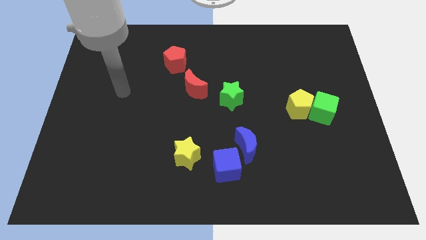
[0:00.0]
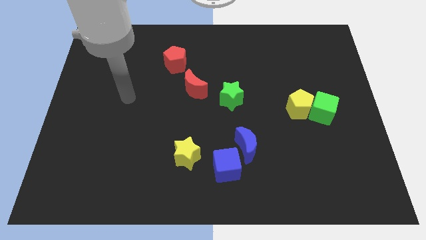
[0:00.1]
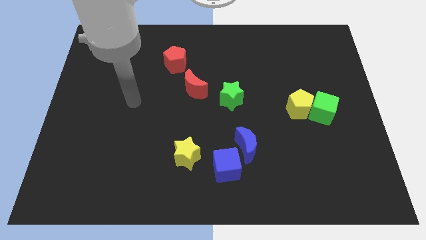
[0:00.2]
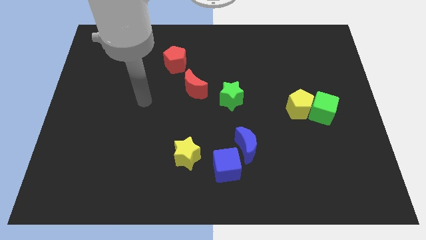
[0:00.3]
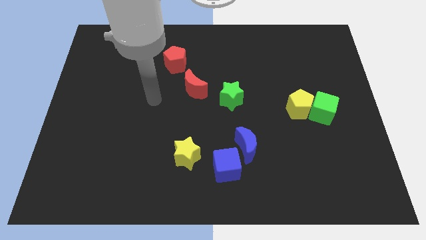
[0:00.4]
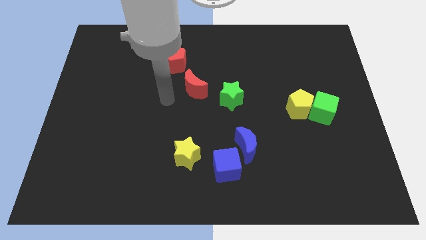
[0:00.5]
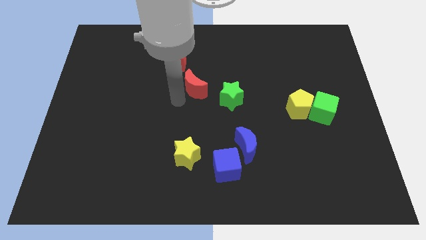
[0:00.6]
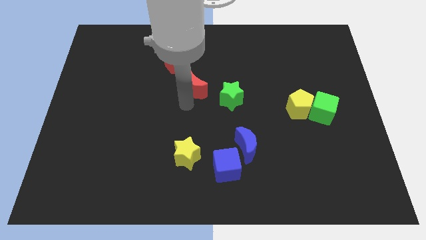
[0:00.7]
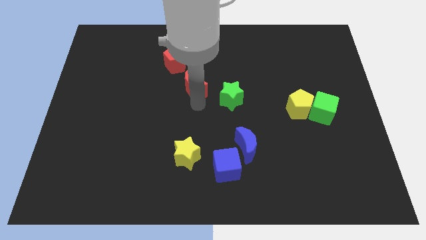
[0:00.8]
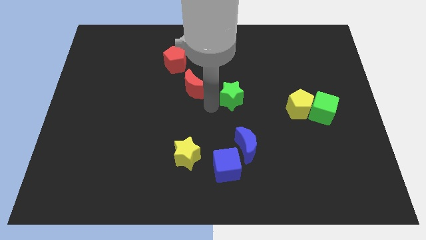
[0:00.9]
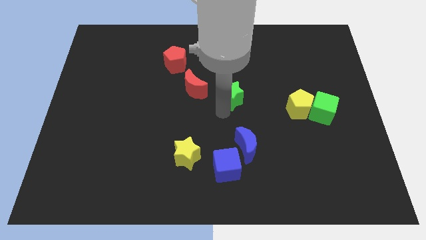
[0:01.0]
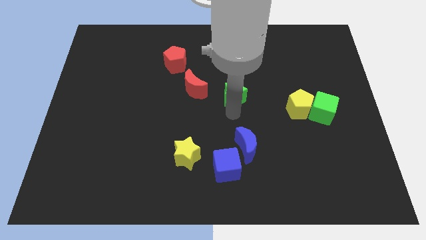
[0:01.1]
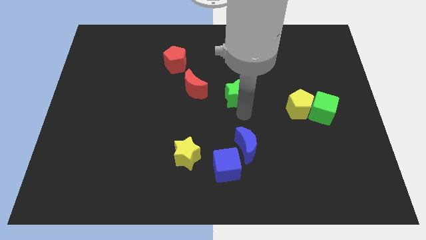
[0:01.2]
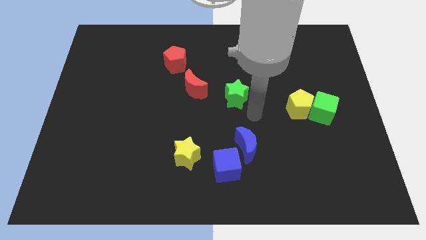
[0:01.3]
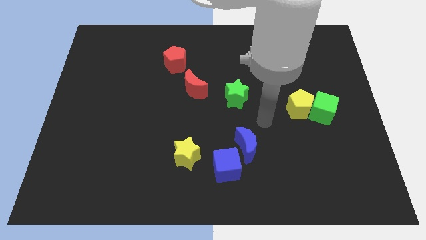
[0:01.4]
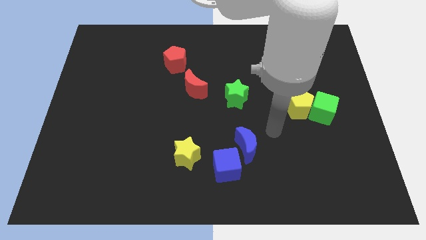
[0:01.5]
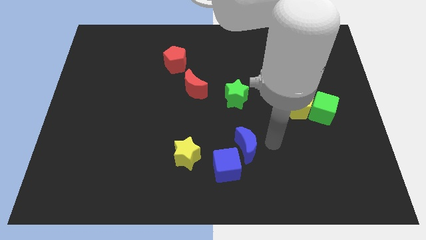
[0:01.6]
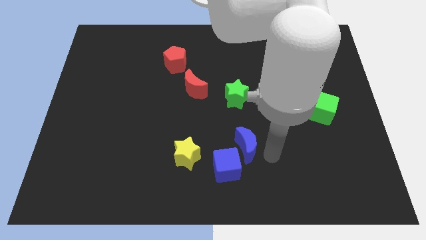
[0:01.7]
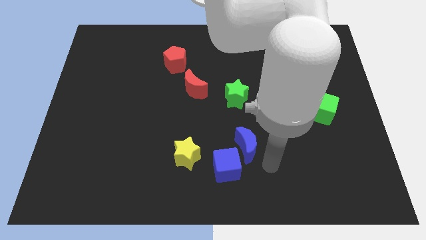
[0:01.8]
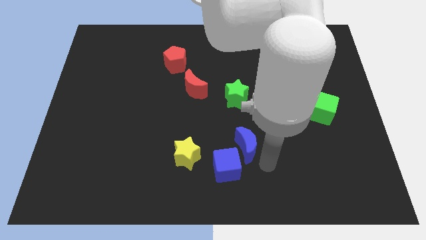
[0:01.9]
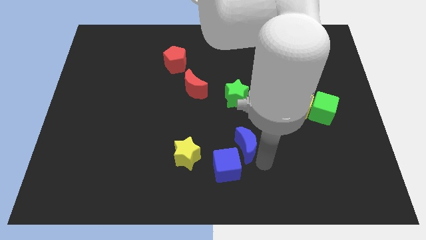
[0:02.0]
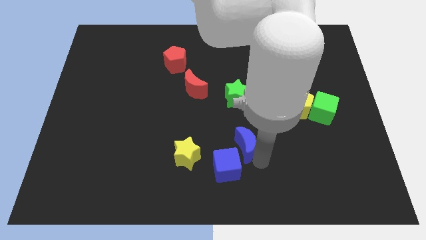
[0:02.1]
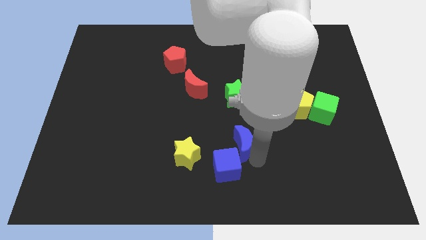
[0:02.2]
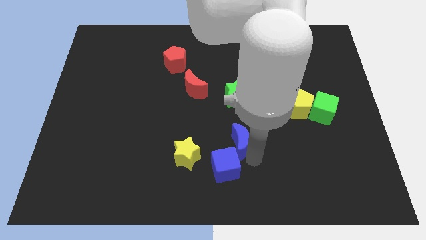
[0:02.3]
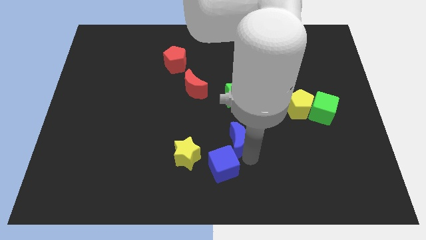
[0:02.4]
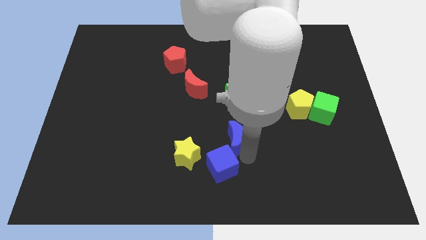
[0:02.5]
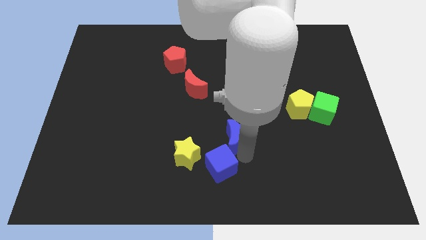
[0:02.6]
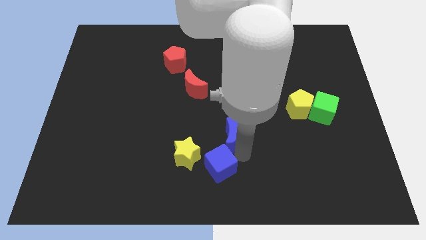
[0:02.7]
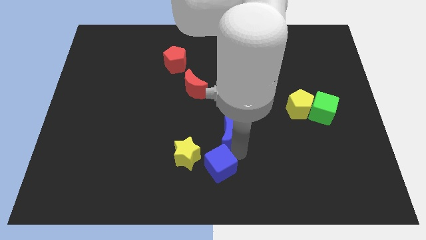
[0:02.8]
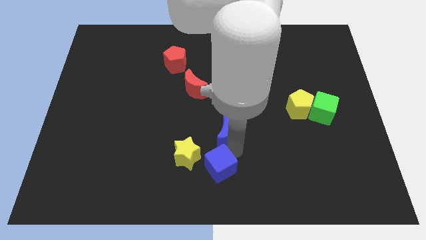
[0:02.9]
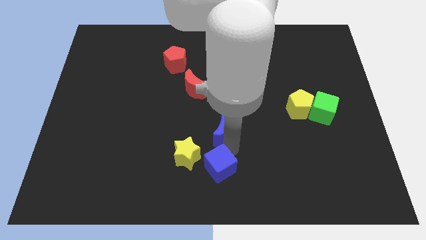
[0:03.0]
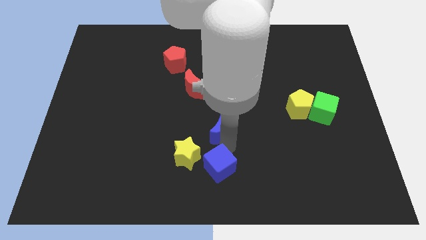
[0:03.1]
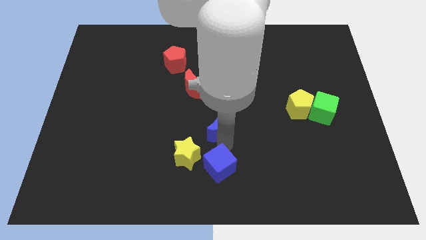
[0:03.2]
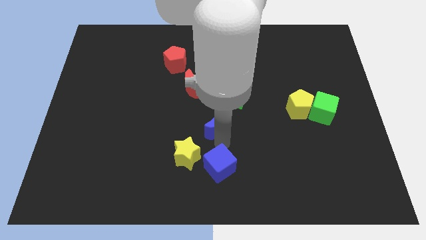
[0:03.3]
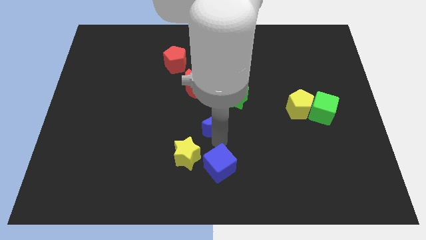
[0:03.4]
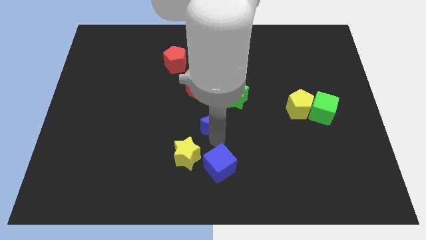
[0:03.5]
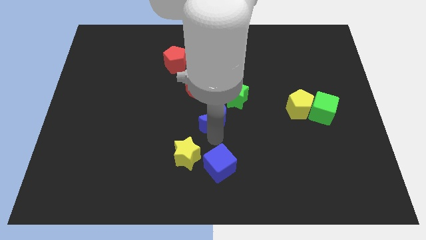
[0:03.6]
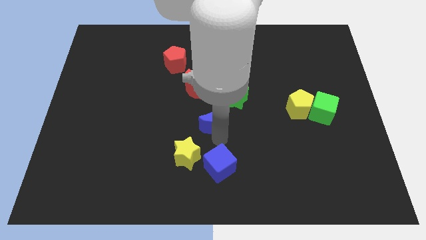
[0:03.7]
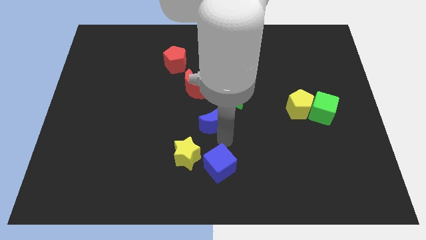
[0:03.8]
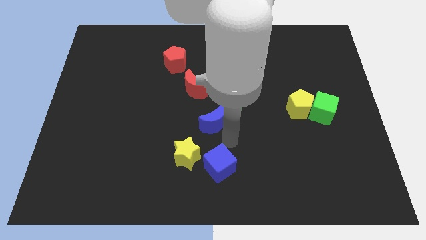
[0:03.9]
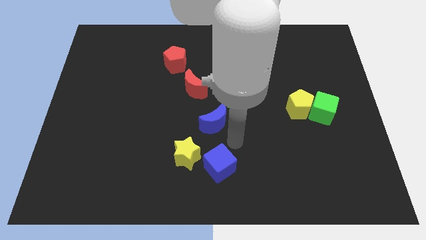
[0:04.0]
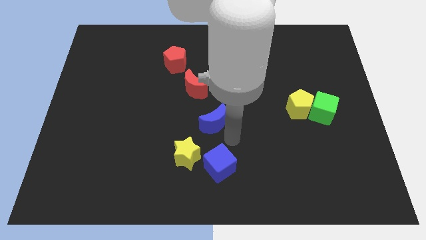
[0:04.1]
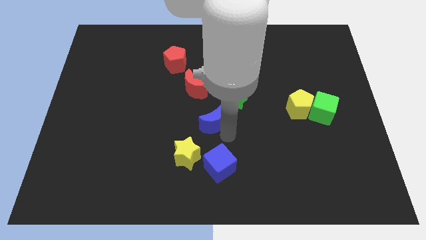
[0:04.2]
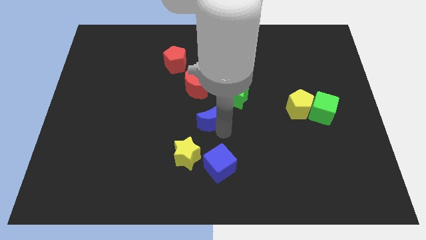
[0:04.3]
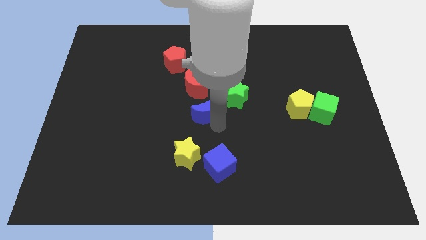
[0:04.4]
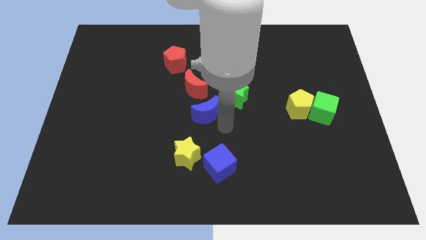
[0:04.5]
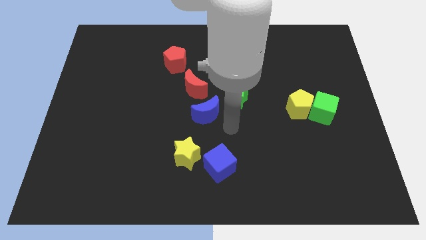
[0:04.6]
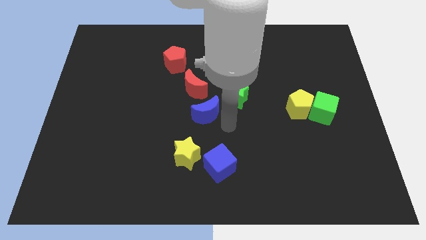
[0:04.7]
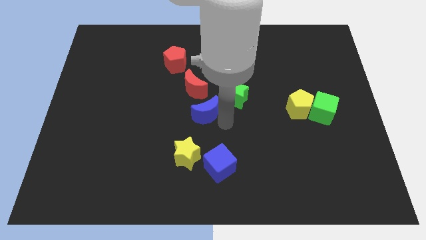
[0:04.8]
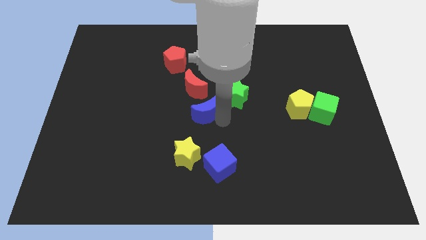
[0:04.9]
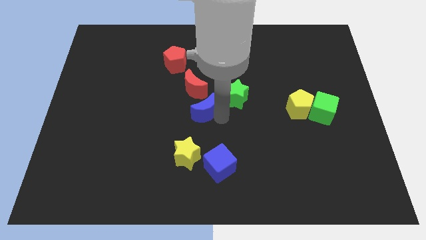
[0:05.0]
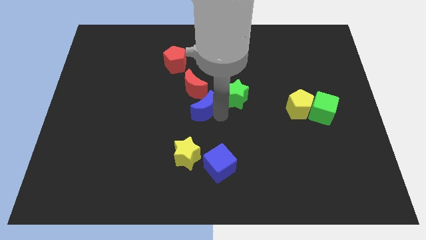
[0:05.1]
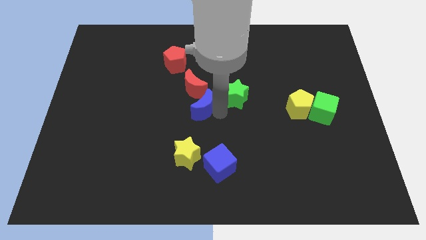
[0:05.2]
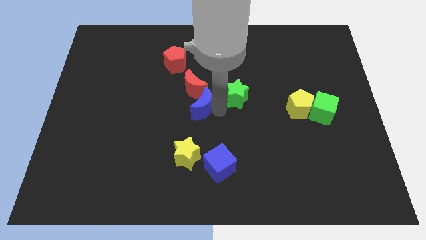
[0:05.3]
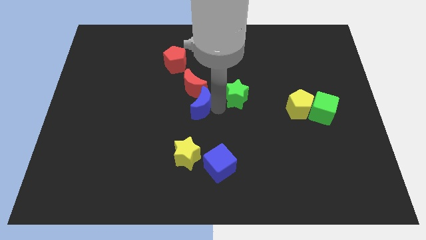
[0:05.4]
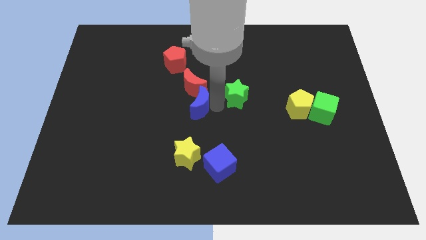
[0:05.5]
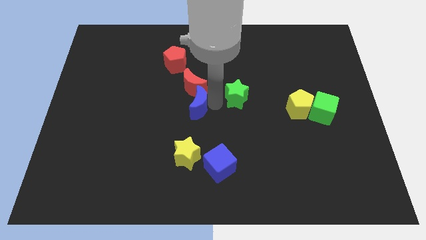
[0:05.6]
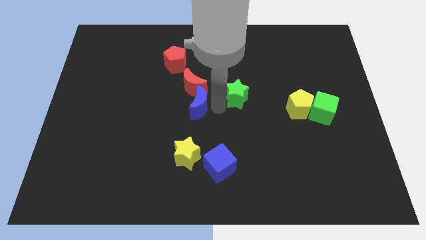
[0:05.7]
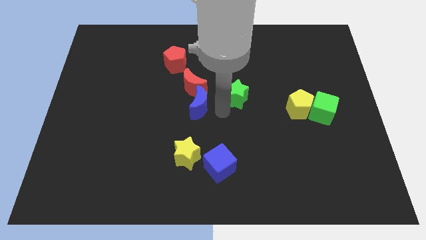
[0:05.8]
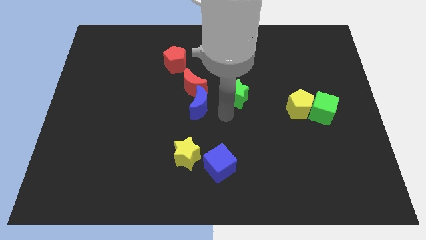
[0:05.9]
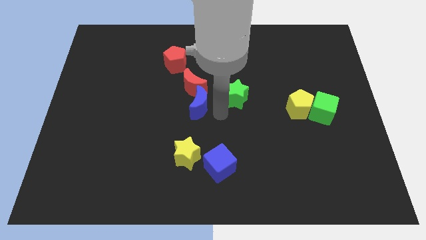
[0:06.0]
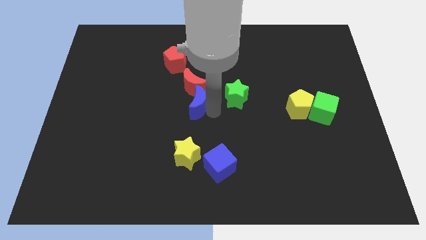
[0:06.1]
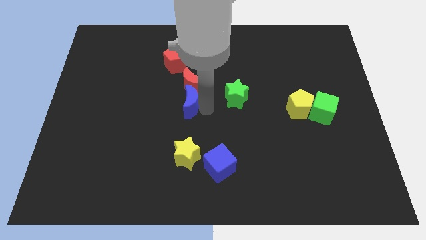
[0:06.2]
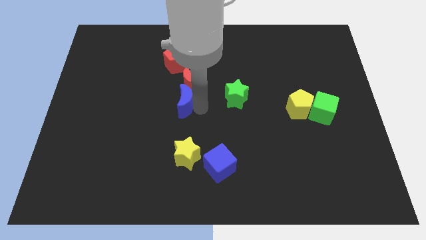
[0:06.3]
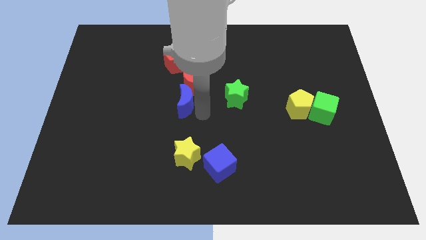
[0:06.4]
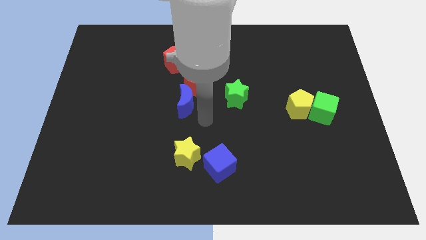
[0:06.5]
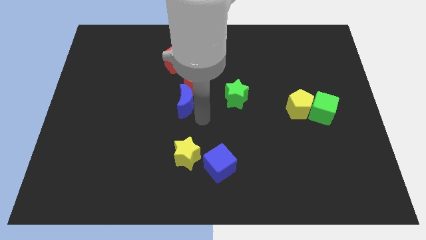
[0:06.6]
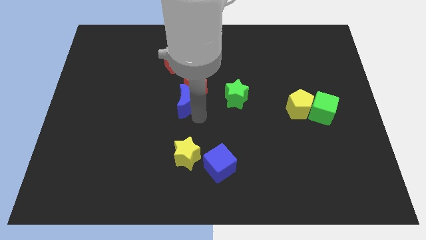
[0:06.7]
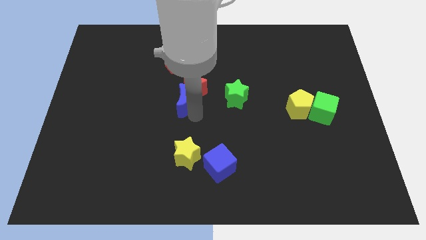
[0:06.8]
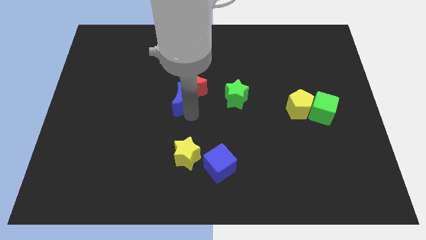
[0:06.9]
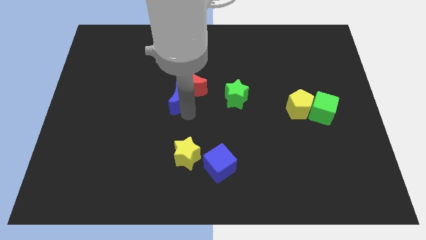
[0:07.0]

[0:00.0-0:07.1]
slide the blue moon upwards and then to the left

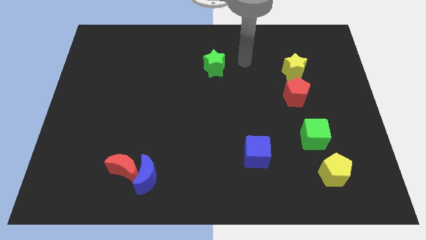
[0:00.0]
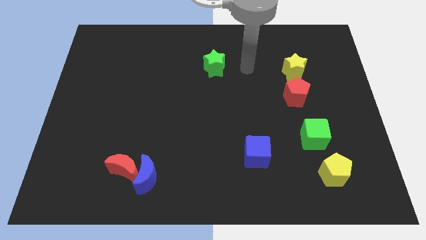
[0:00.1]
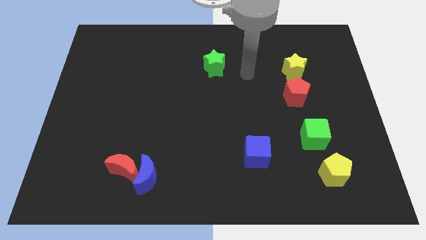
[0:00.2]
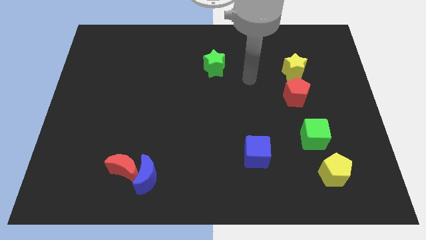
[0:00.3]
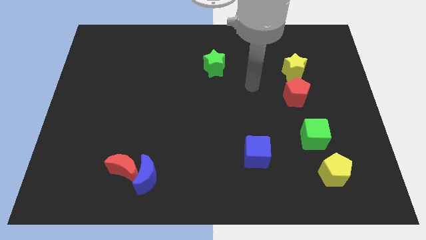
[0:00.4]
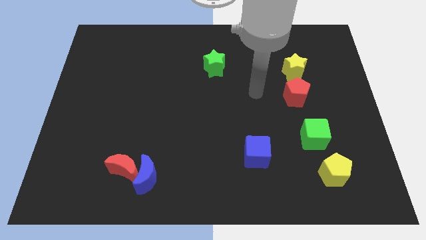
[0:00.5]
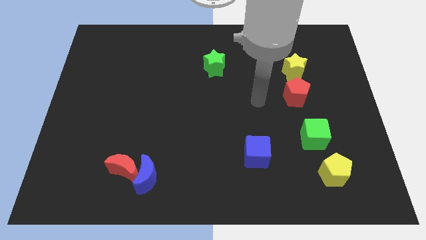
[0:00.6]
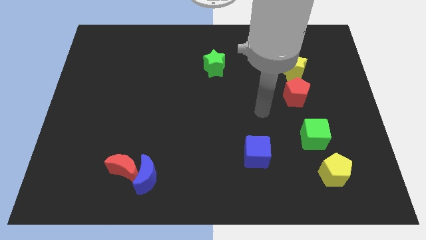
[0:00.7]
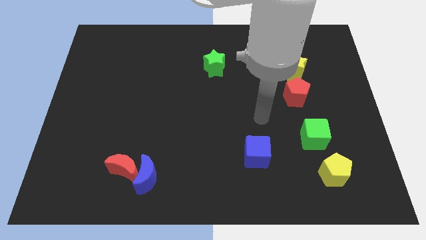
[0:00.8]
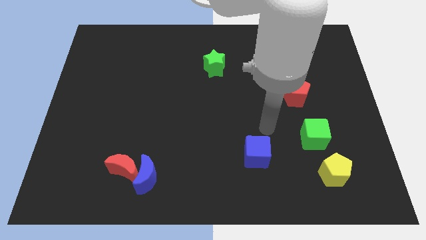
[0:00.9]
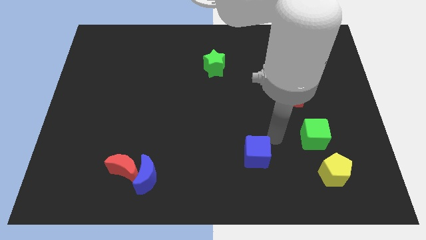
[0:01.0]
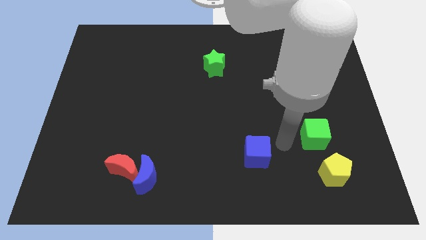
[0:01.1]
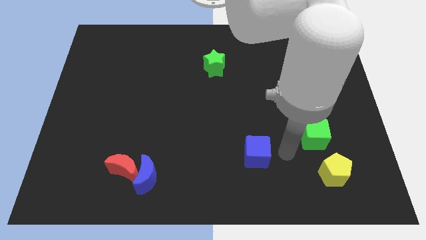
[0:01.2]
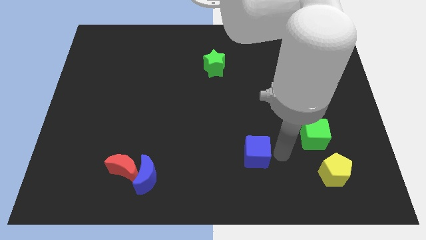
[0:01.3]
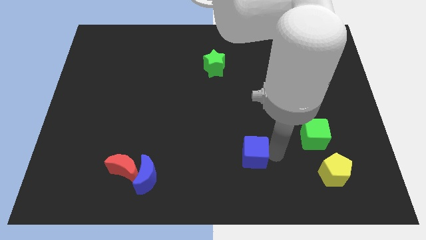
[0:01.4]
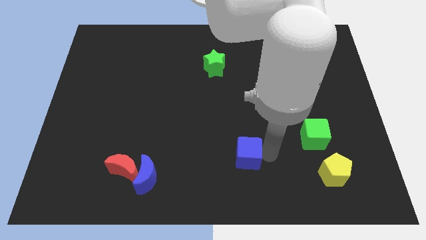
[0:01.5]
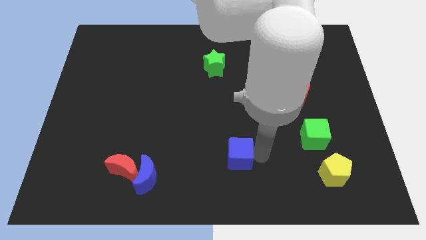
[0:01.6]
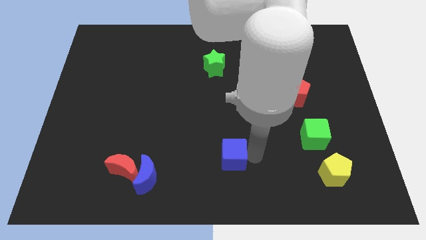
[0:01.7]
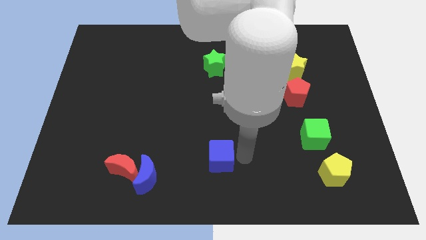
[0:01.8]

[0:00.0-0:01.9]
slightly move the blue cube left
